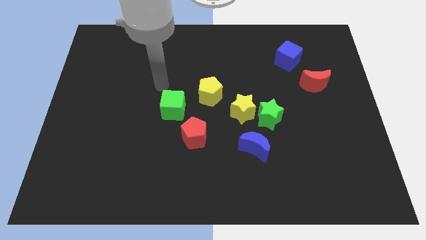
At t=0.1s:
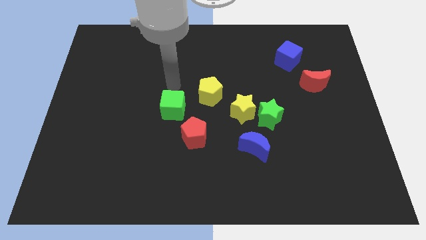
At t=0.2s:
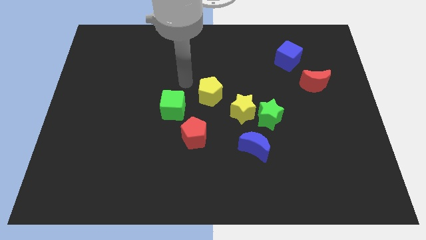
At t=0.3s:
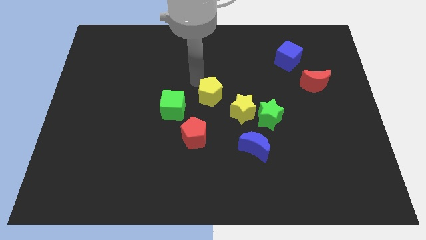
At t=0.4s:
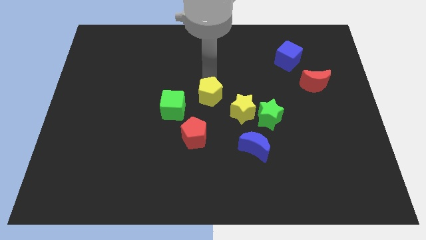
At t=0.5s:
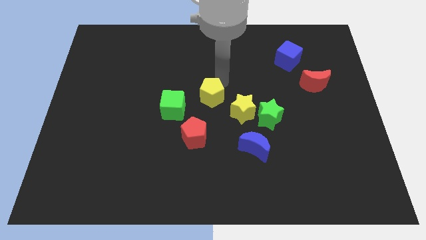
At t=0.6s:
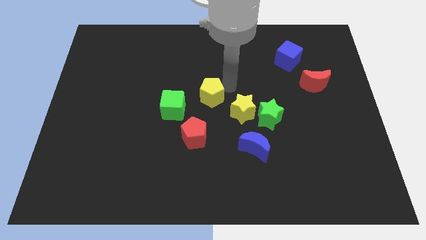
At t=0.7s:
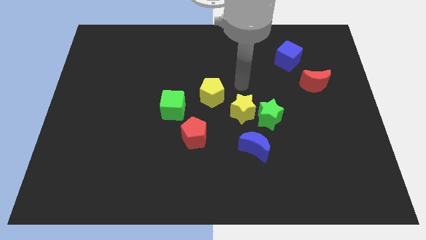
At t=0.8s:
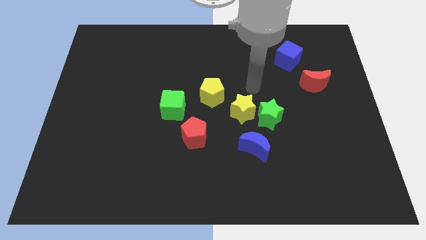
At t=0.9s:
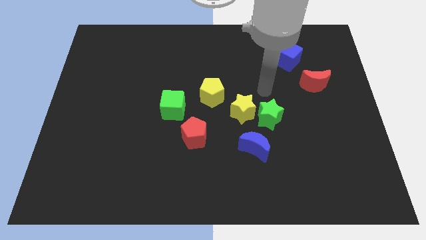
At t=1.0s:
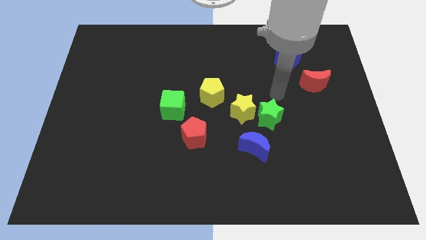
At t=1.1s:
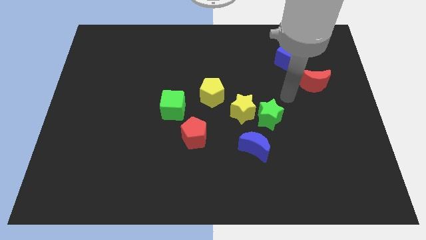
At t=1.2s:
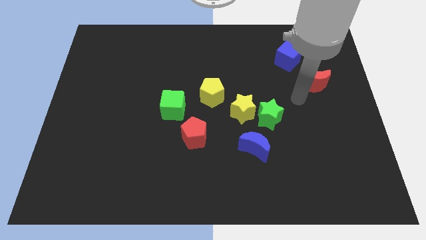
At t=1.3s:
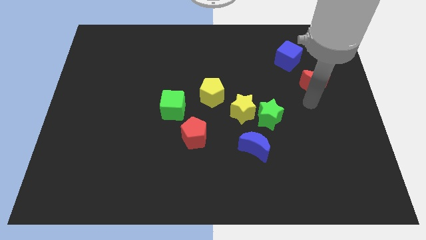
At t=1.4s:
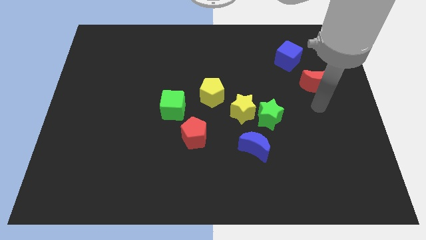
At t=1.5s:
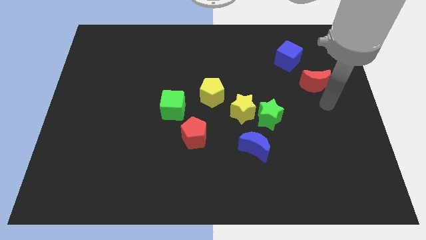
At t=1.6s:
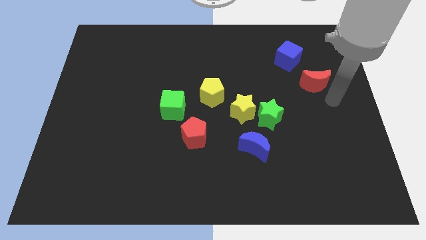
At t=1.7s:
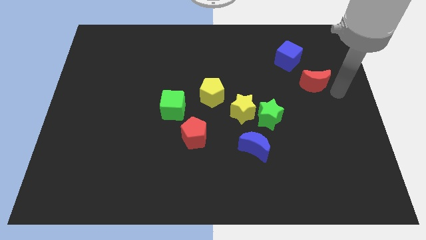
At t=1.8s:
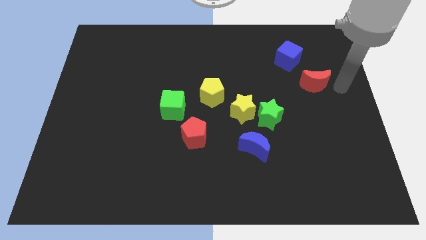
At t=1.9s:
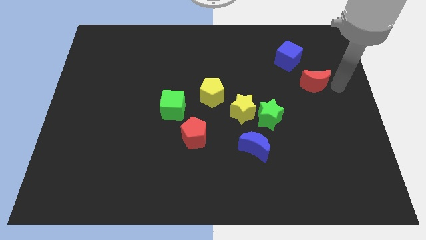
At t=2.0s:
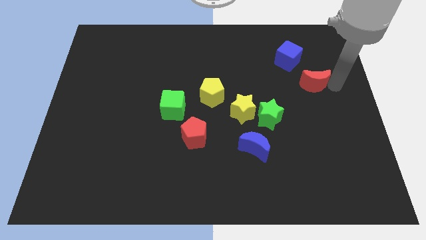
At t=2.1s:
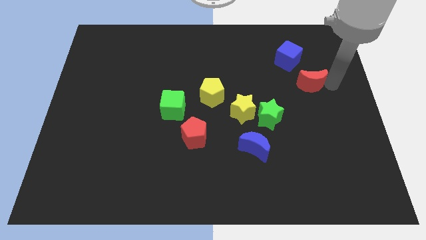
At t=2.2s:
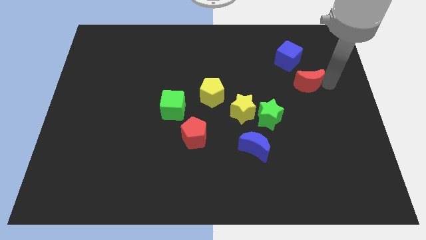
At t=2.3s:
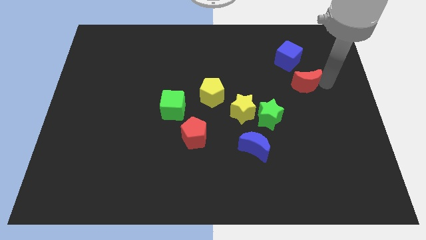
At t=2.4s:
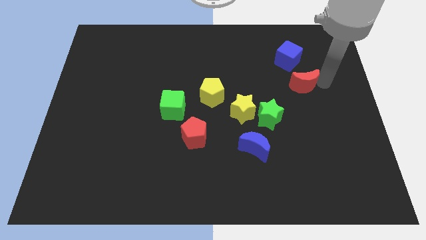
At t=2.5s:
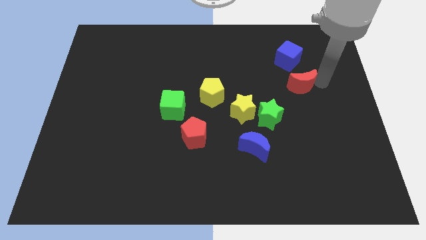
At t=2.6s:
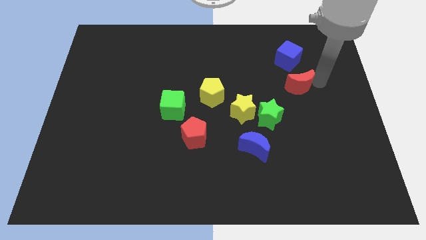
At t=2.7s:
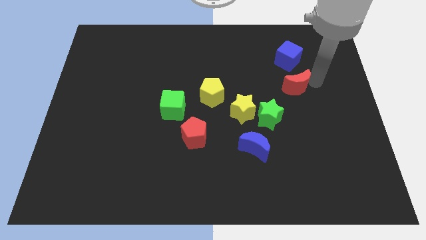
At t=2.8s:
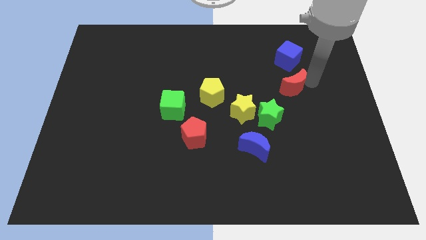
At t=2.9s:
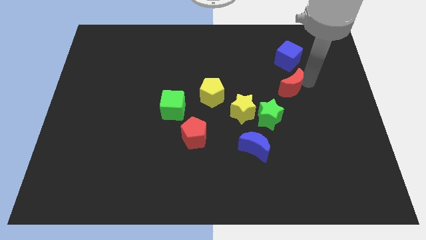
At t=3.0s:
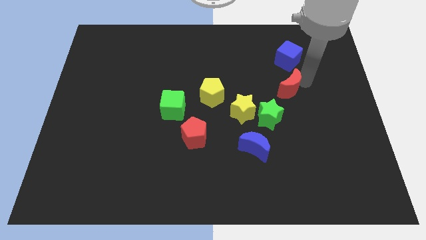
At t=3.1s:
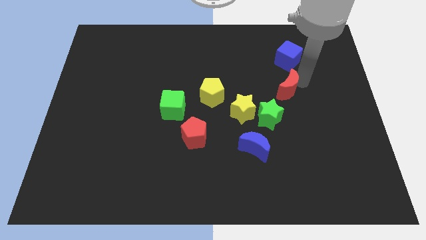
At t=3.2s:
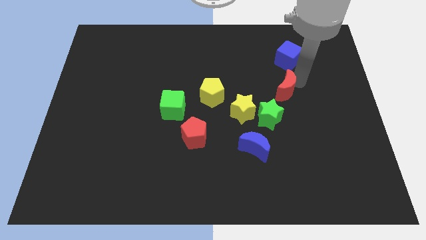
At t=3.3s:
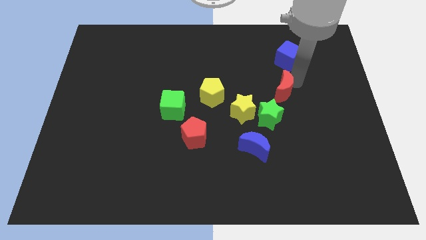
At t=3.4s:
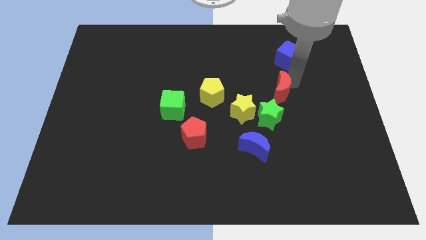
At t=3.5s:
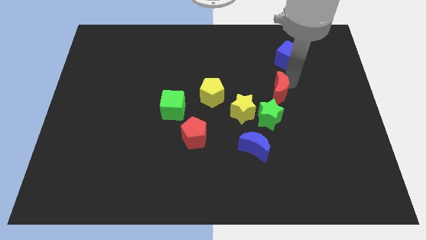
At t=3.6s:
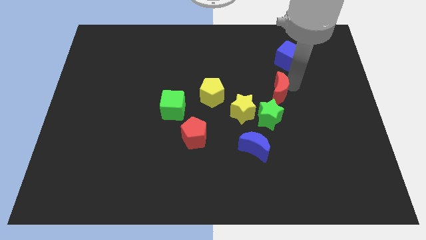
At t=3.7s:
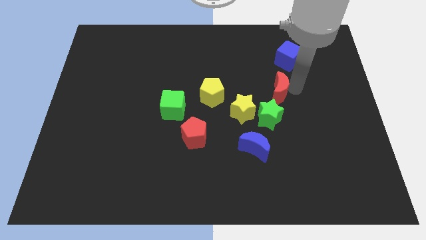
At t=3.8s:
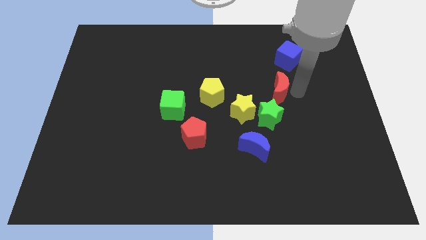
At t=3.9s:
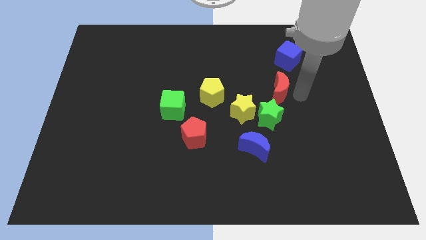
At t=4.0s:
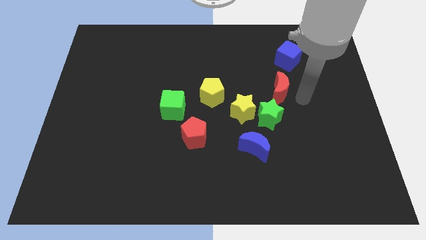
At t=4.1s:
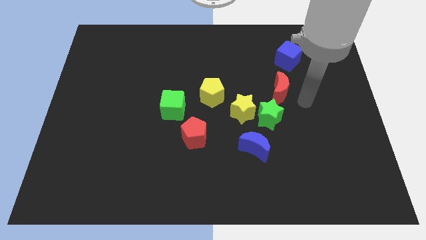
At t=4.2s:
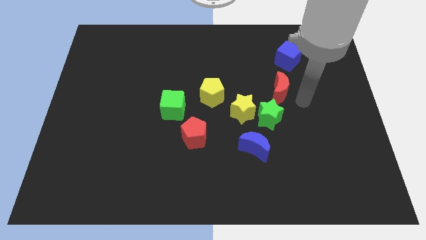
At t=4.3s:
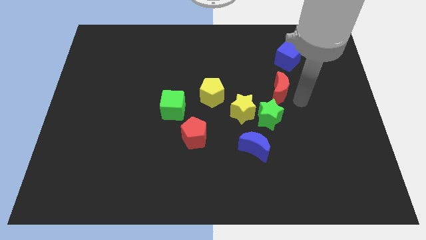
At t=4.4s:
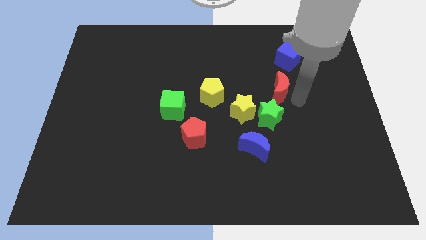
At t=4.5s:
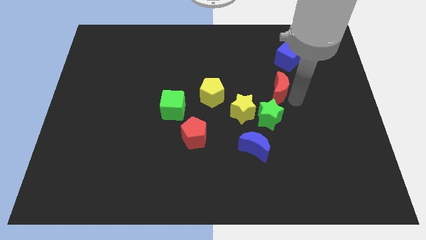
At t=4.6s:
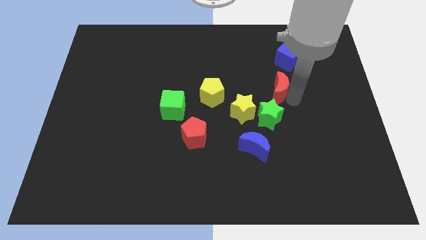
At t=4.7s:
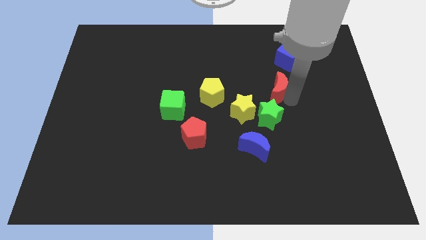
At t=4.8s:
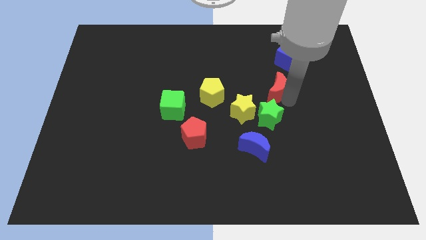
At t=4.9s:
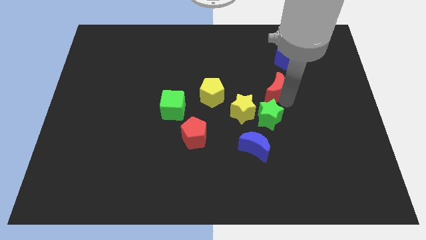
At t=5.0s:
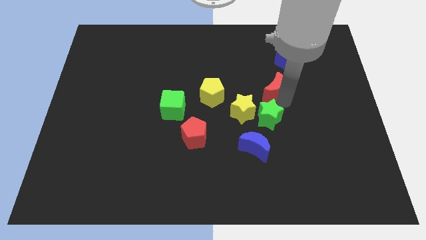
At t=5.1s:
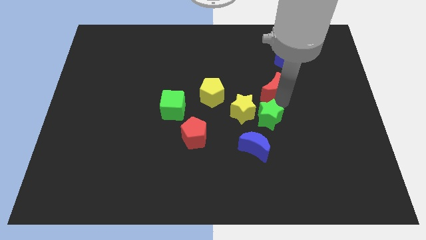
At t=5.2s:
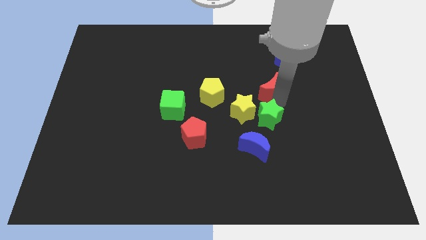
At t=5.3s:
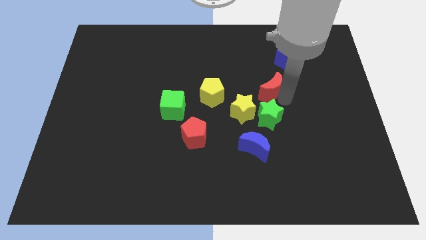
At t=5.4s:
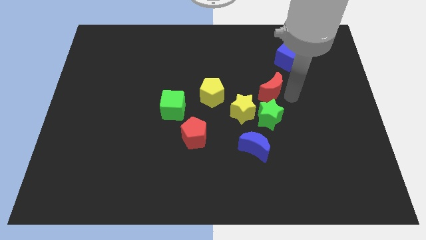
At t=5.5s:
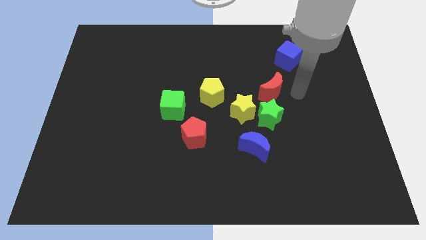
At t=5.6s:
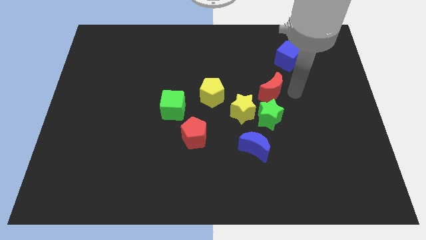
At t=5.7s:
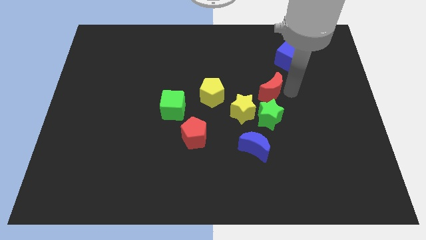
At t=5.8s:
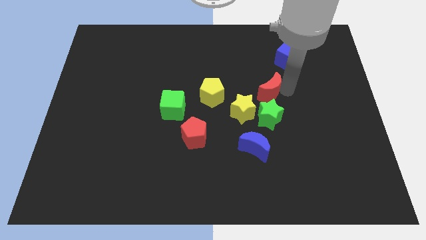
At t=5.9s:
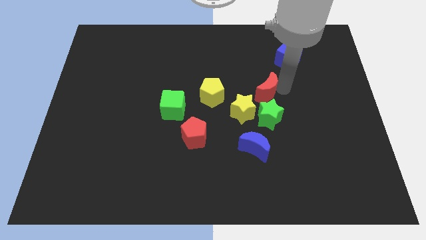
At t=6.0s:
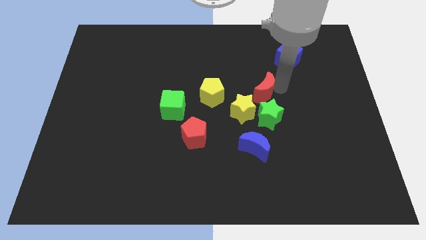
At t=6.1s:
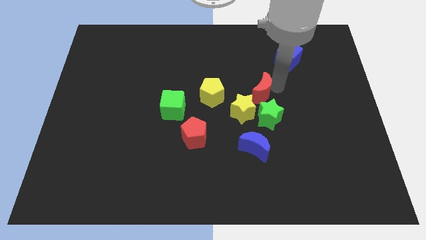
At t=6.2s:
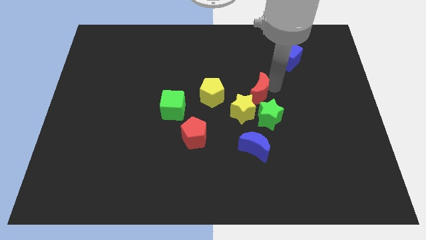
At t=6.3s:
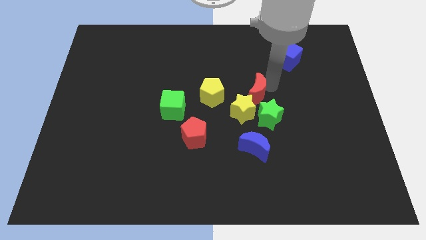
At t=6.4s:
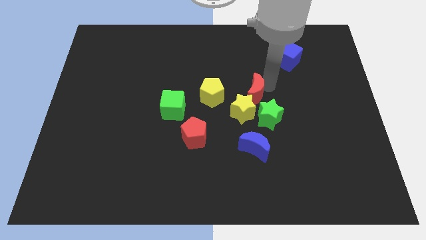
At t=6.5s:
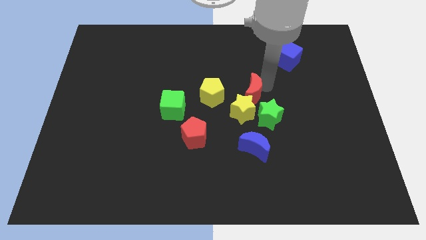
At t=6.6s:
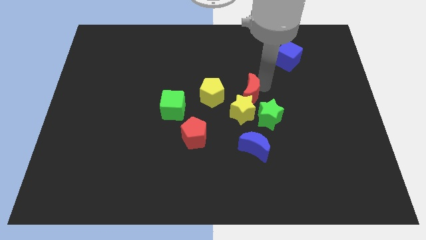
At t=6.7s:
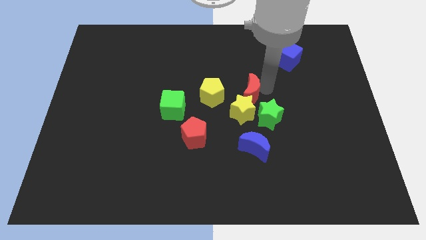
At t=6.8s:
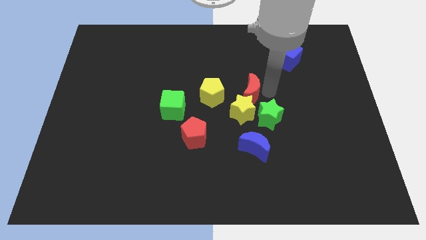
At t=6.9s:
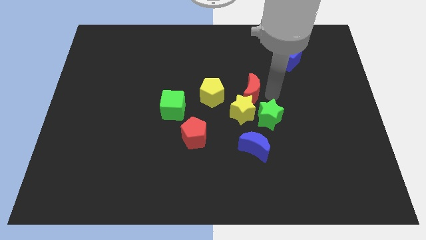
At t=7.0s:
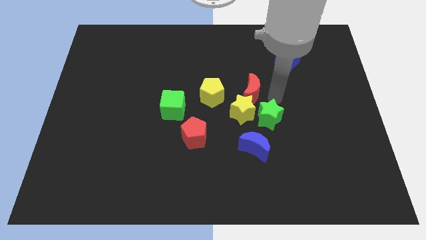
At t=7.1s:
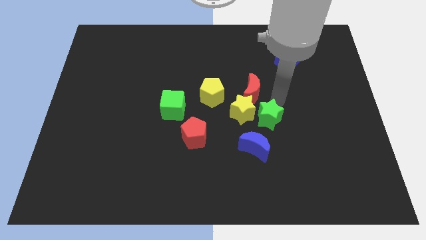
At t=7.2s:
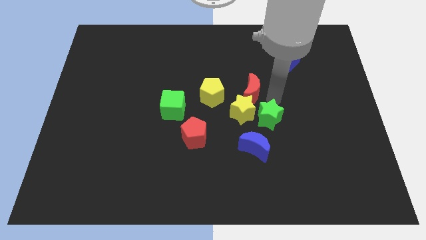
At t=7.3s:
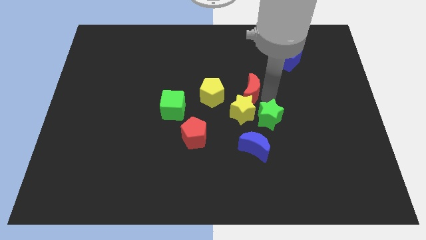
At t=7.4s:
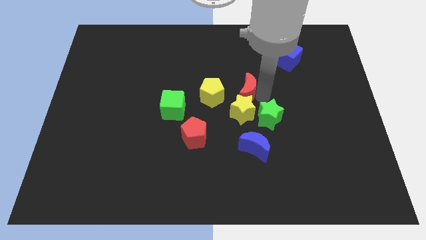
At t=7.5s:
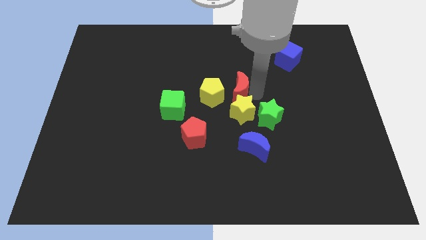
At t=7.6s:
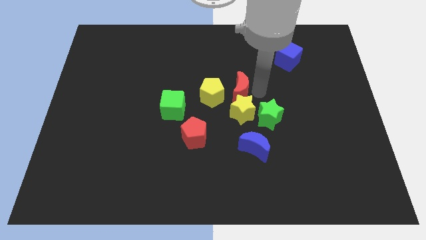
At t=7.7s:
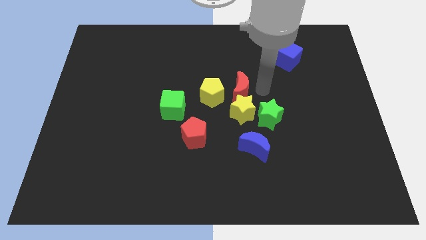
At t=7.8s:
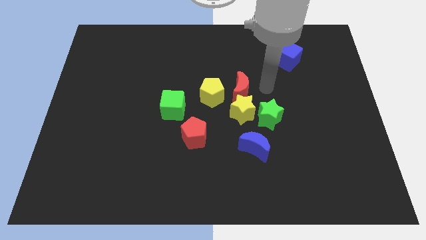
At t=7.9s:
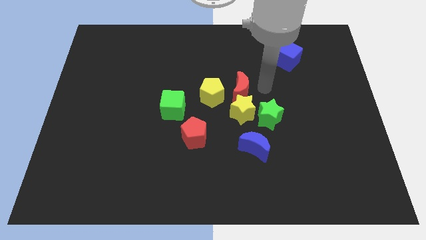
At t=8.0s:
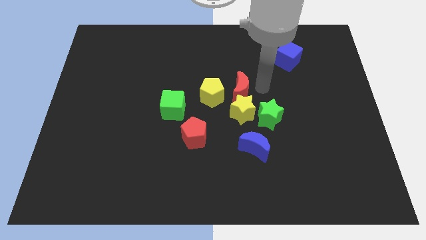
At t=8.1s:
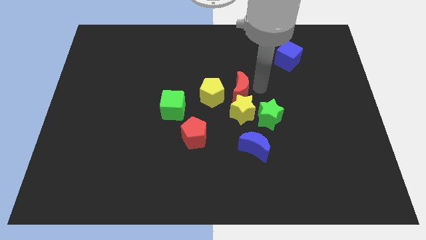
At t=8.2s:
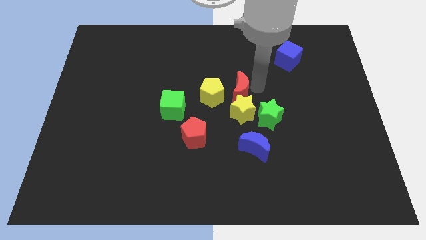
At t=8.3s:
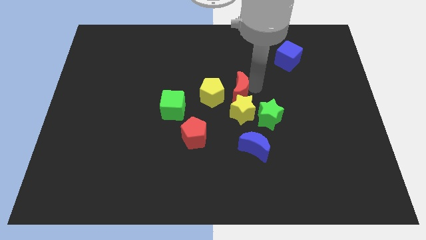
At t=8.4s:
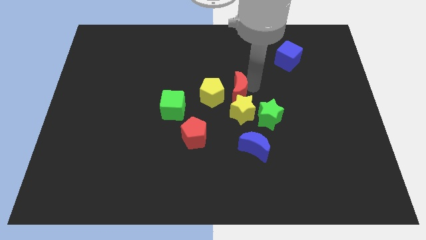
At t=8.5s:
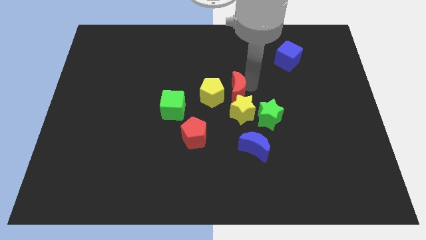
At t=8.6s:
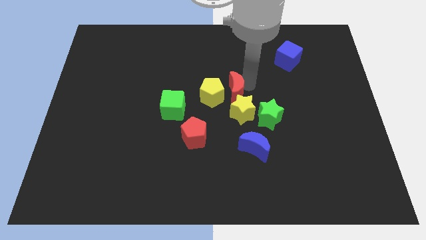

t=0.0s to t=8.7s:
move the red moon to the yellow pentagon
